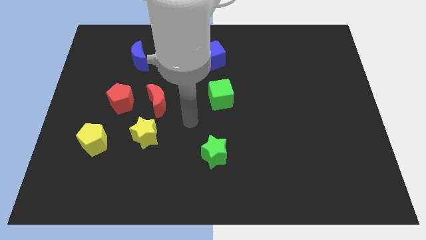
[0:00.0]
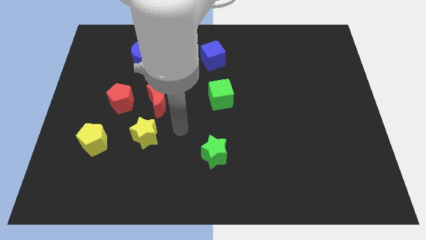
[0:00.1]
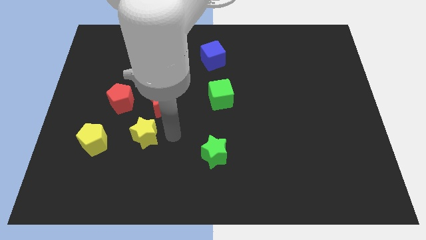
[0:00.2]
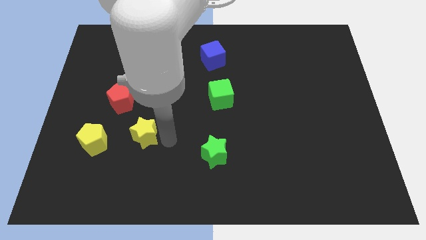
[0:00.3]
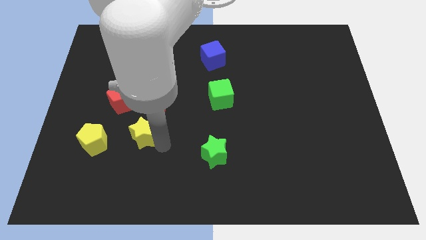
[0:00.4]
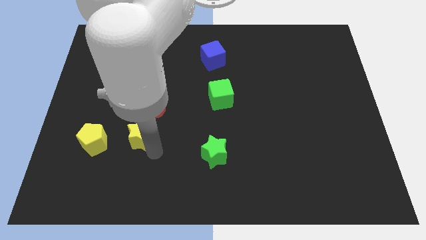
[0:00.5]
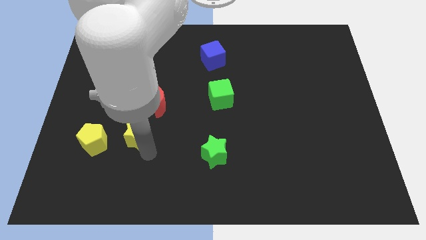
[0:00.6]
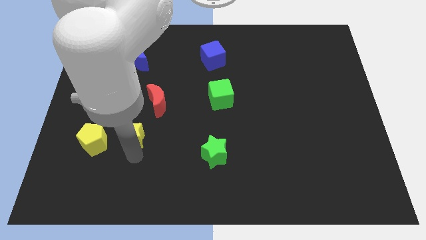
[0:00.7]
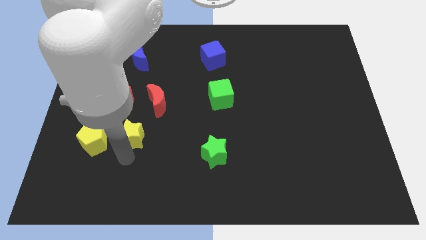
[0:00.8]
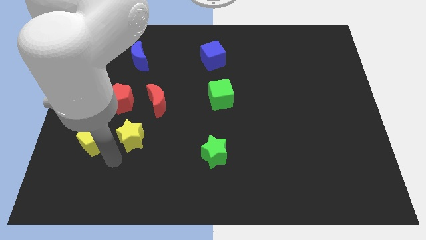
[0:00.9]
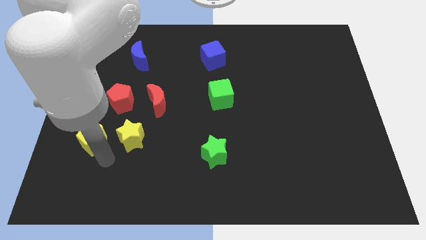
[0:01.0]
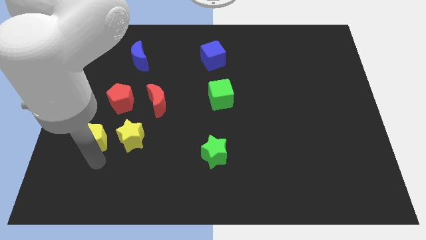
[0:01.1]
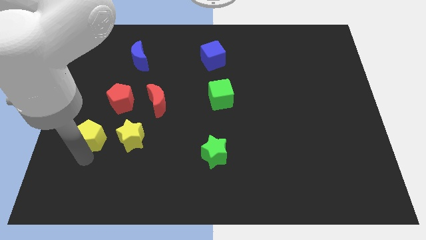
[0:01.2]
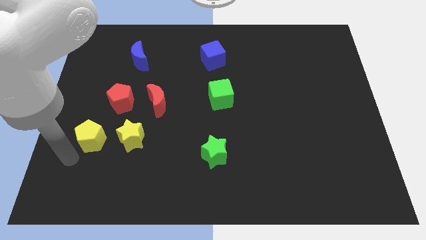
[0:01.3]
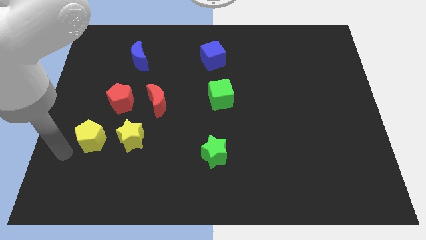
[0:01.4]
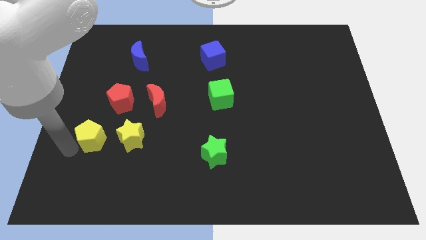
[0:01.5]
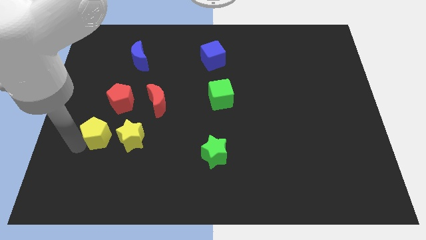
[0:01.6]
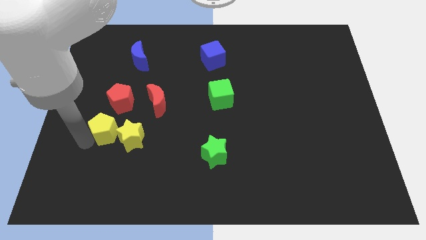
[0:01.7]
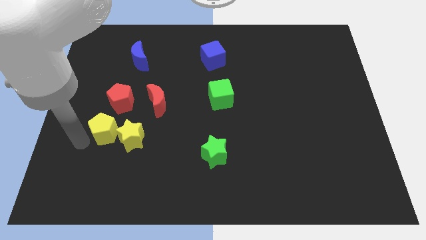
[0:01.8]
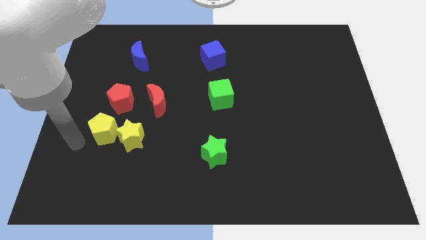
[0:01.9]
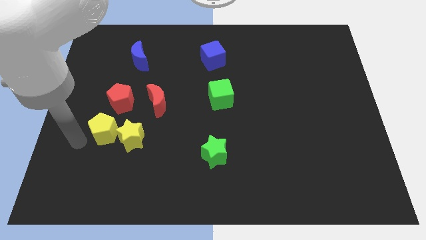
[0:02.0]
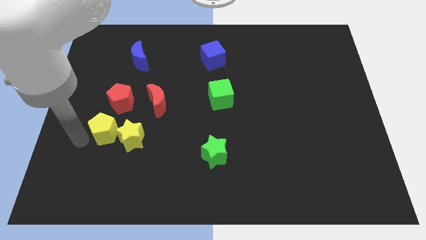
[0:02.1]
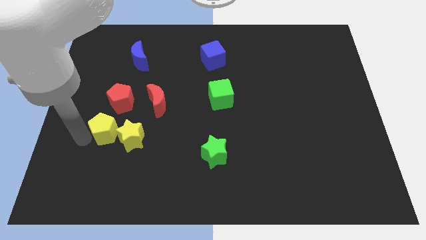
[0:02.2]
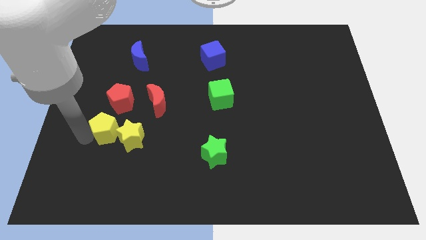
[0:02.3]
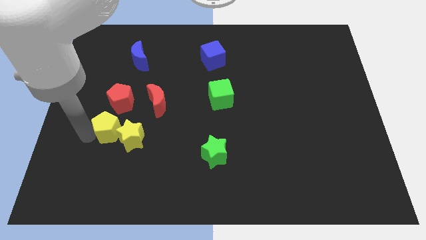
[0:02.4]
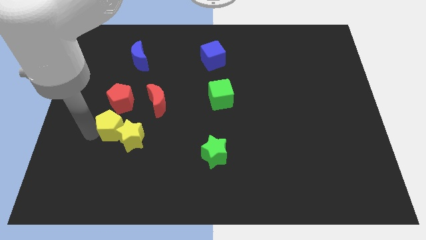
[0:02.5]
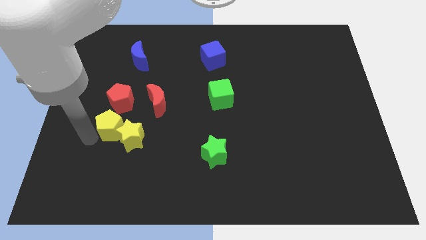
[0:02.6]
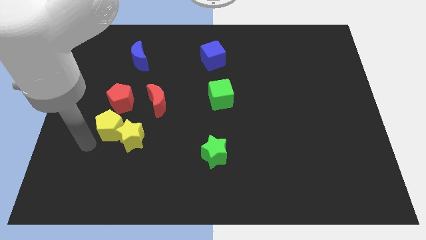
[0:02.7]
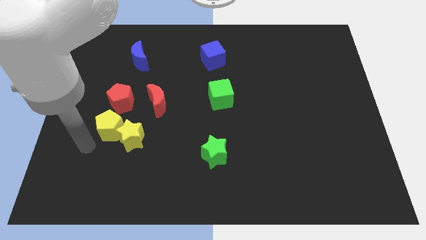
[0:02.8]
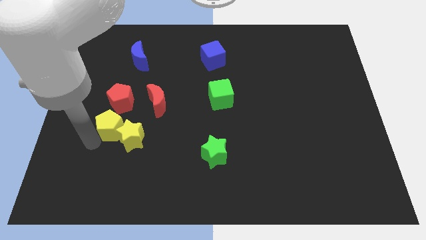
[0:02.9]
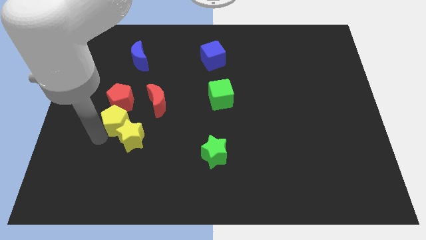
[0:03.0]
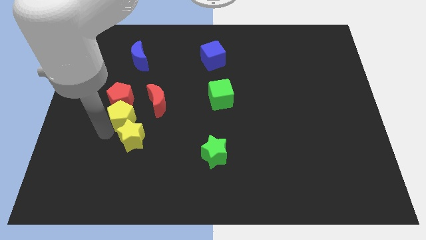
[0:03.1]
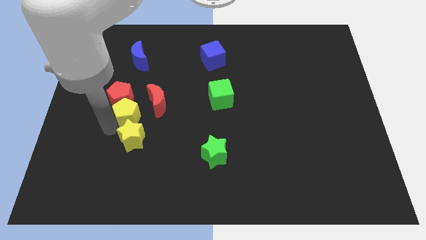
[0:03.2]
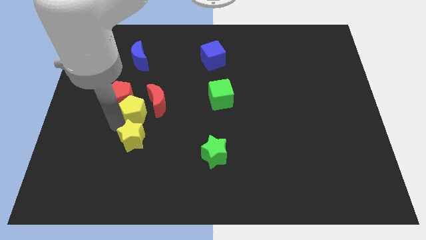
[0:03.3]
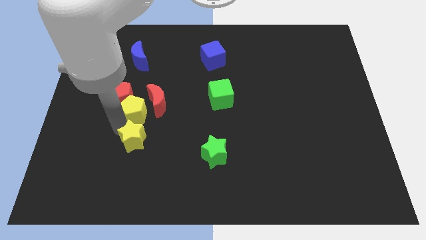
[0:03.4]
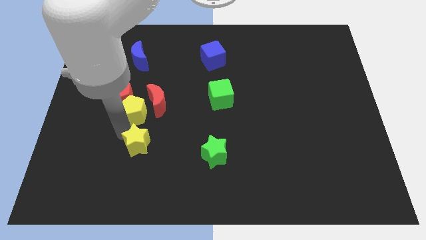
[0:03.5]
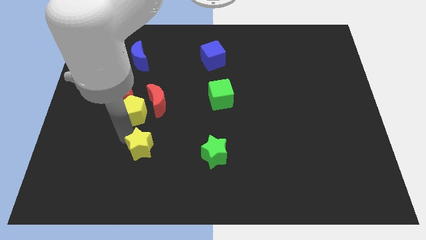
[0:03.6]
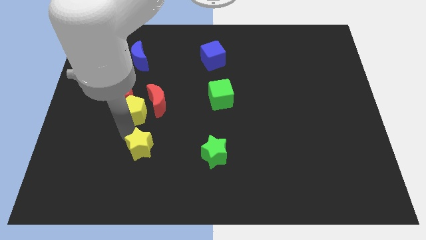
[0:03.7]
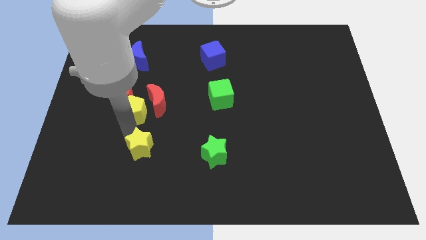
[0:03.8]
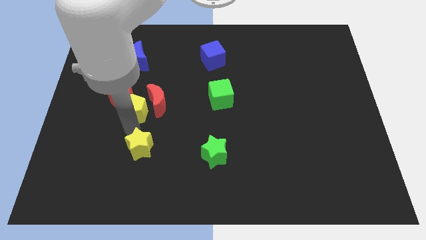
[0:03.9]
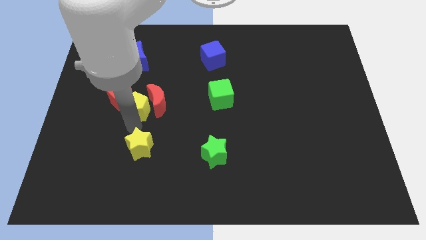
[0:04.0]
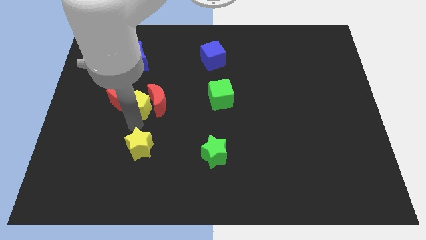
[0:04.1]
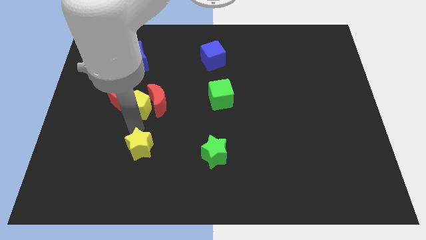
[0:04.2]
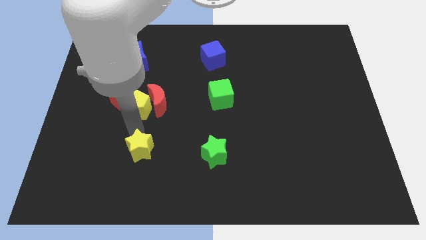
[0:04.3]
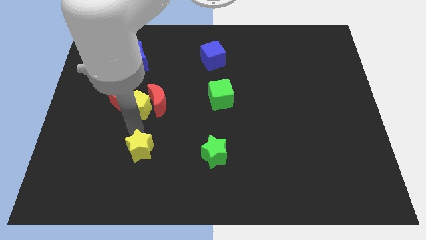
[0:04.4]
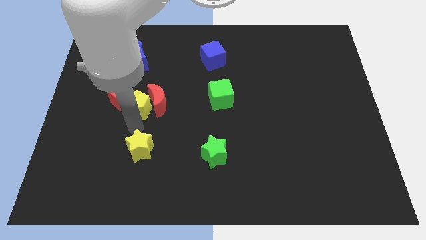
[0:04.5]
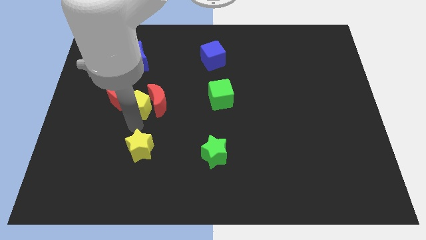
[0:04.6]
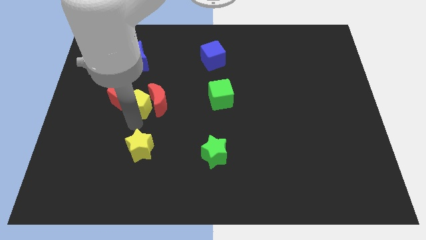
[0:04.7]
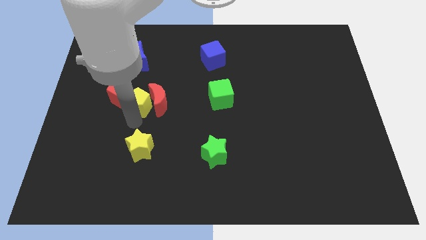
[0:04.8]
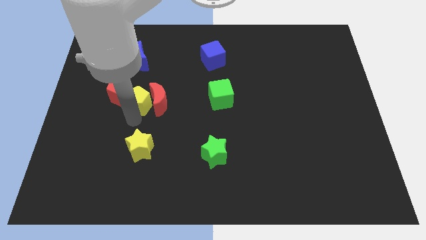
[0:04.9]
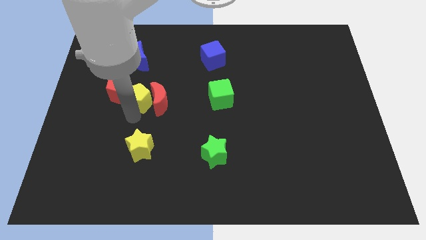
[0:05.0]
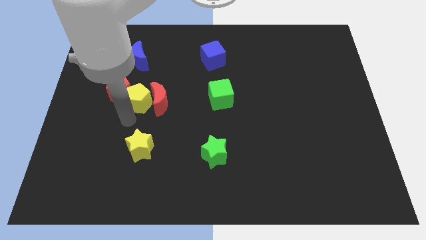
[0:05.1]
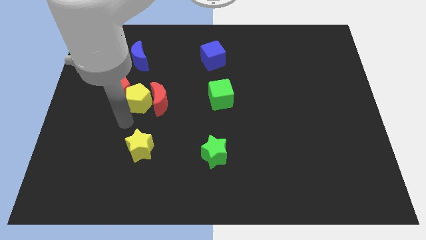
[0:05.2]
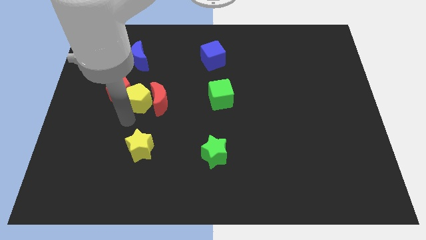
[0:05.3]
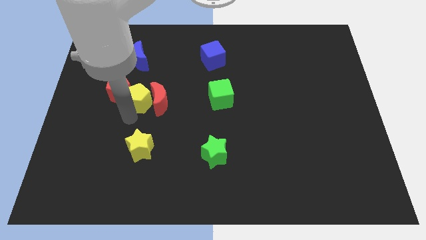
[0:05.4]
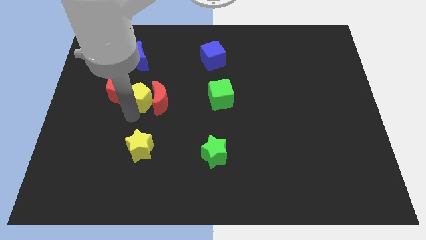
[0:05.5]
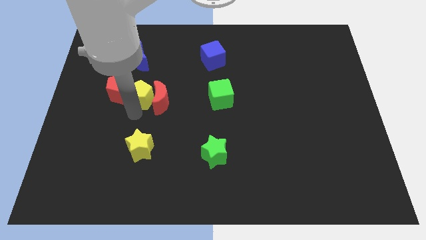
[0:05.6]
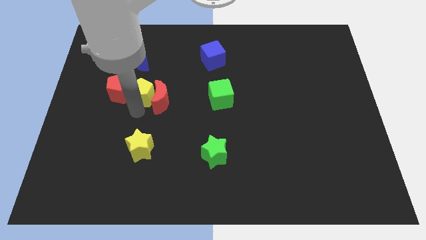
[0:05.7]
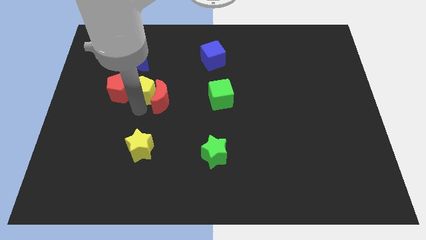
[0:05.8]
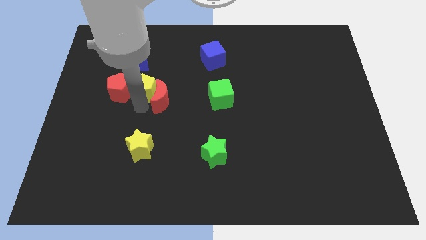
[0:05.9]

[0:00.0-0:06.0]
move the yellow pentagon above the red moon

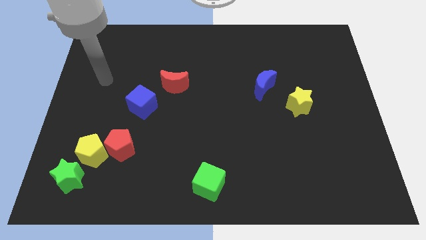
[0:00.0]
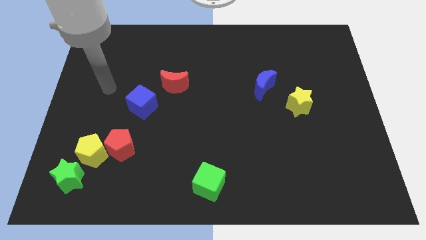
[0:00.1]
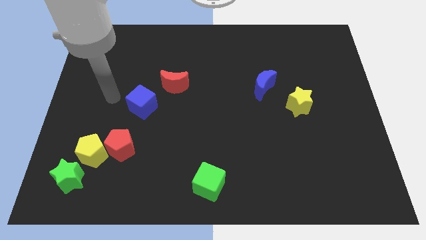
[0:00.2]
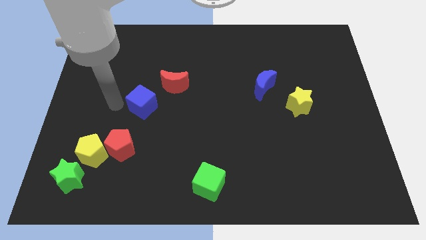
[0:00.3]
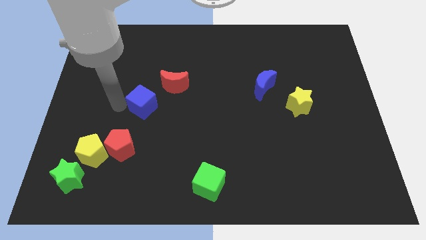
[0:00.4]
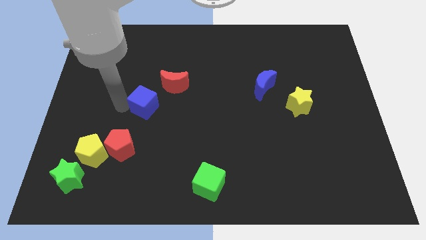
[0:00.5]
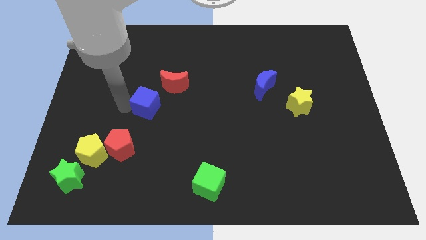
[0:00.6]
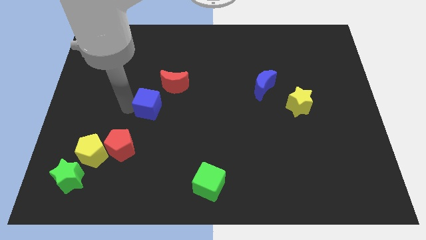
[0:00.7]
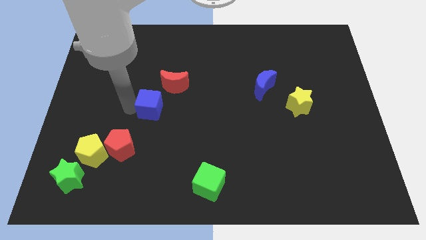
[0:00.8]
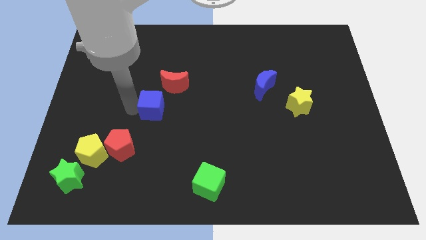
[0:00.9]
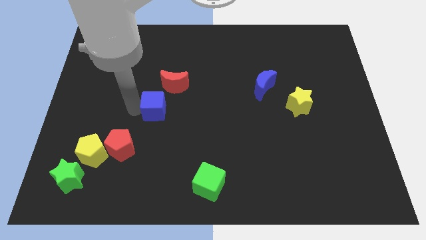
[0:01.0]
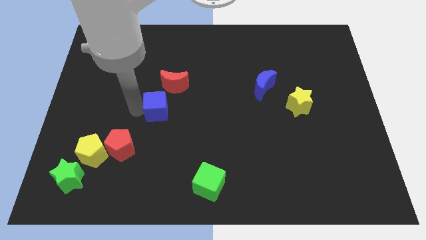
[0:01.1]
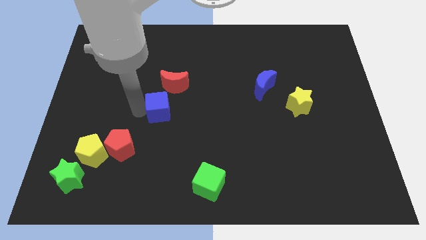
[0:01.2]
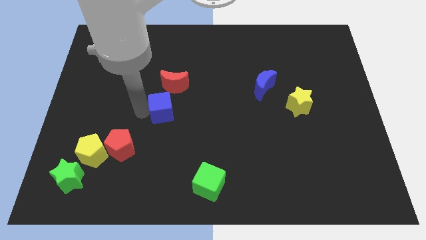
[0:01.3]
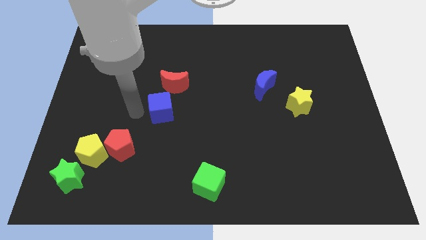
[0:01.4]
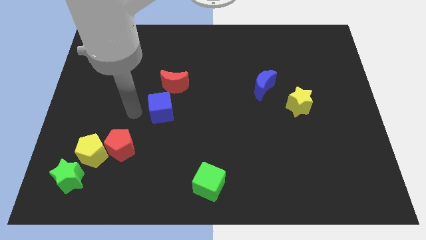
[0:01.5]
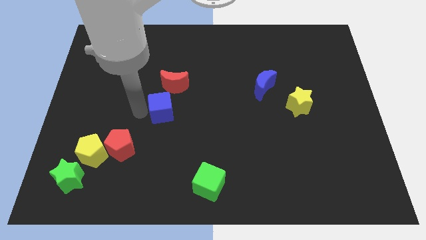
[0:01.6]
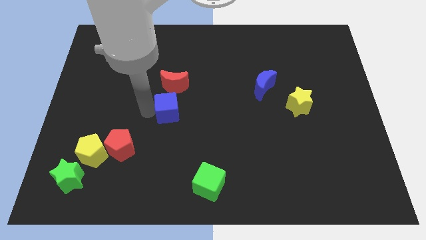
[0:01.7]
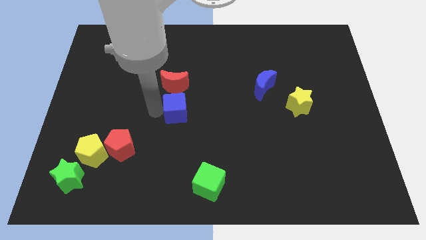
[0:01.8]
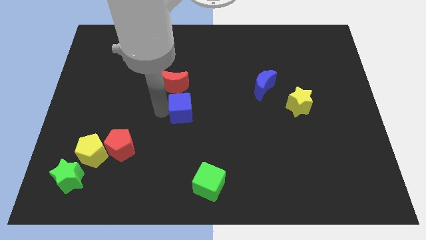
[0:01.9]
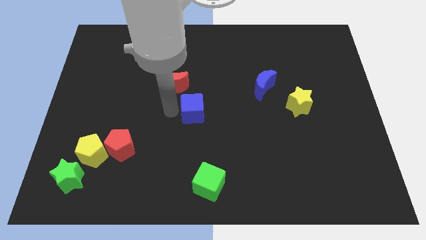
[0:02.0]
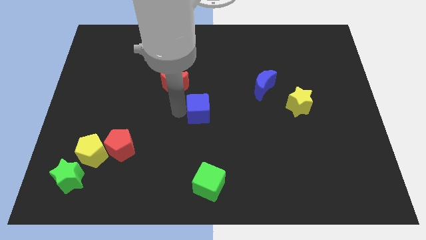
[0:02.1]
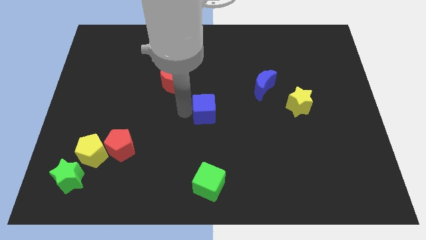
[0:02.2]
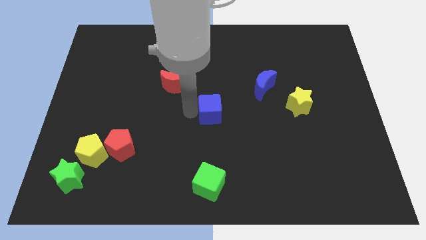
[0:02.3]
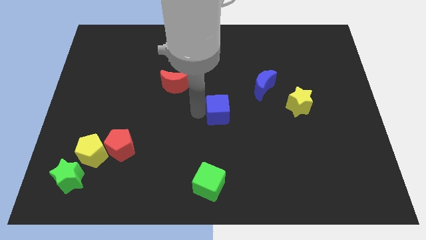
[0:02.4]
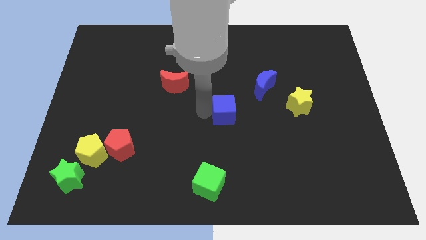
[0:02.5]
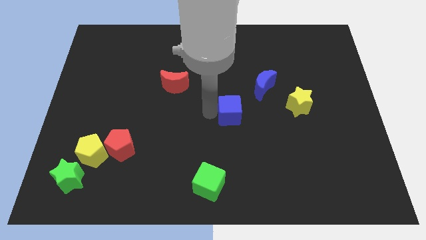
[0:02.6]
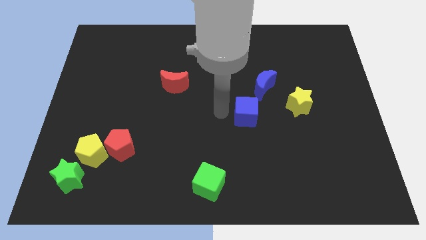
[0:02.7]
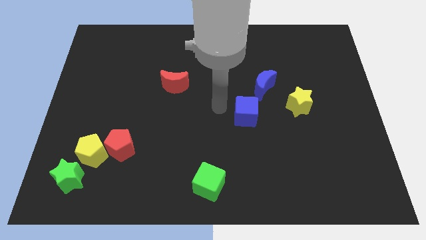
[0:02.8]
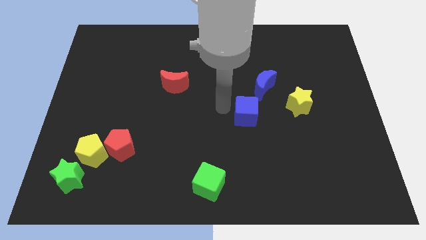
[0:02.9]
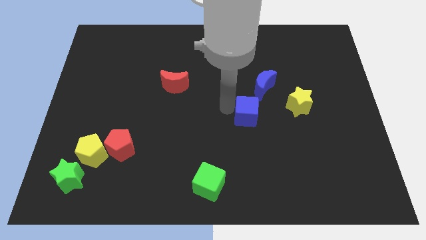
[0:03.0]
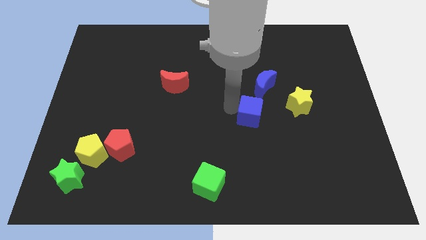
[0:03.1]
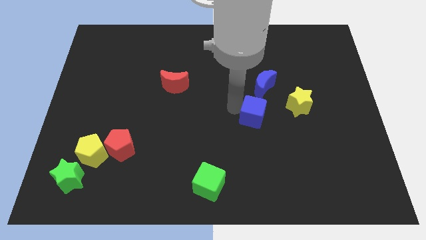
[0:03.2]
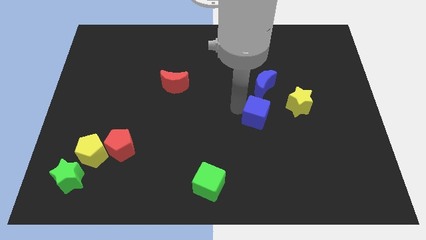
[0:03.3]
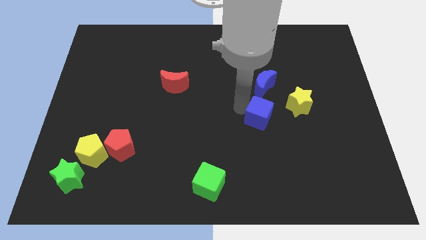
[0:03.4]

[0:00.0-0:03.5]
push the blue cube diagonally down and to the left of the yellow star
